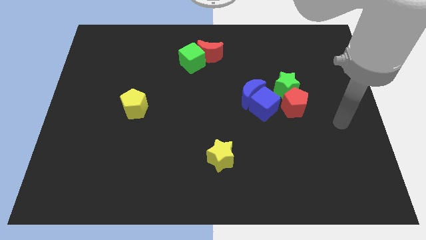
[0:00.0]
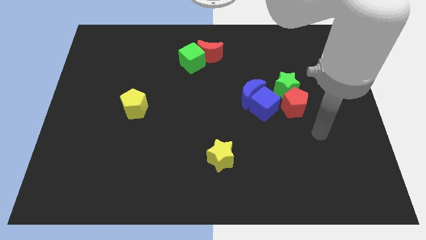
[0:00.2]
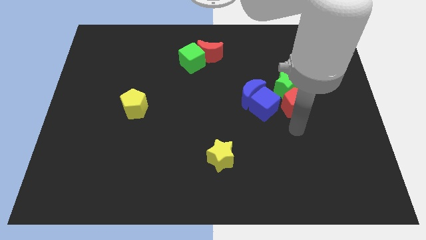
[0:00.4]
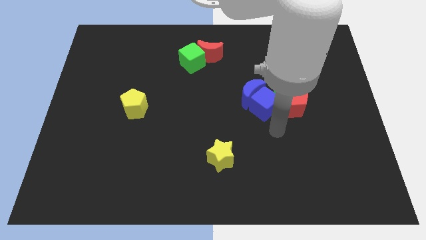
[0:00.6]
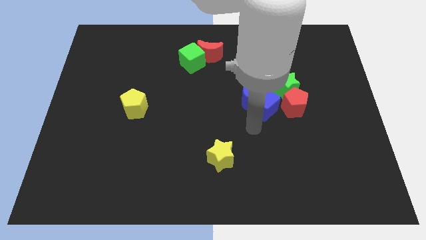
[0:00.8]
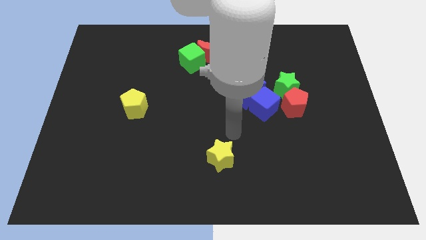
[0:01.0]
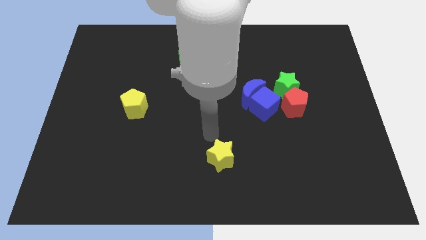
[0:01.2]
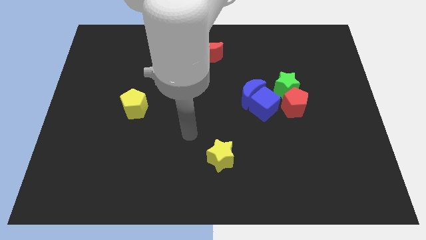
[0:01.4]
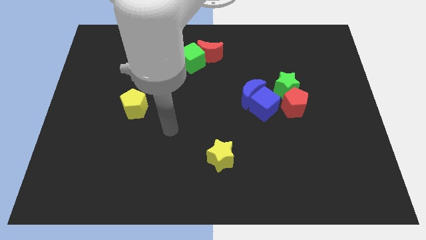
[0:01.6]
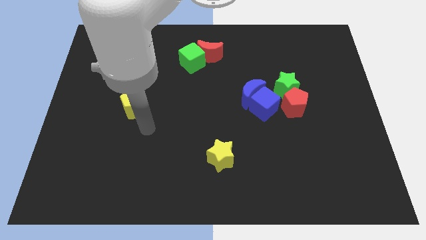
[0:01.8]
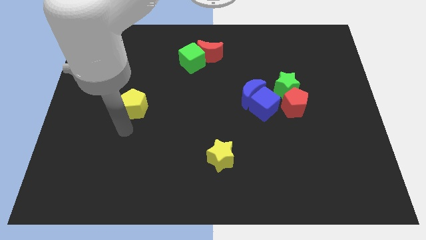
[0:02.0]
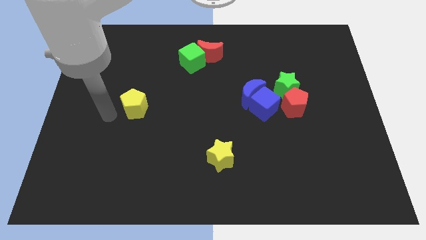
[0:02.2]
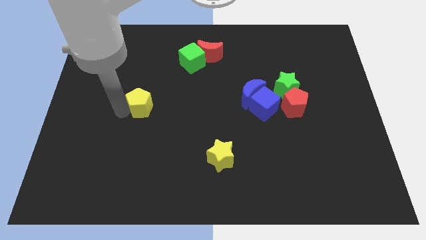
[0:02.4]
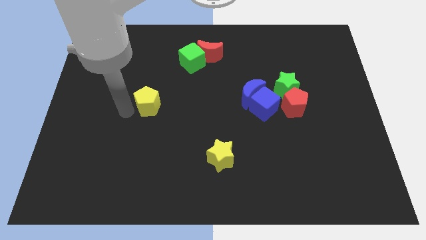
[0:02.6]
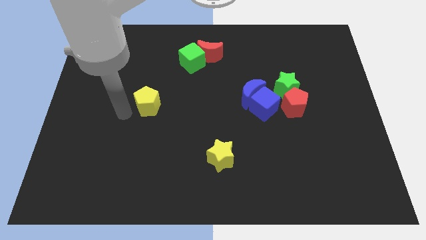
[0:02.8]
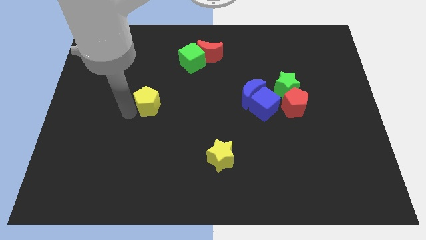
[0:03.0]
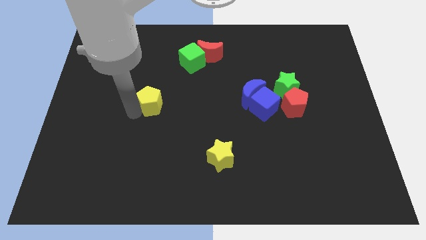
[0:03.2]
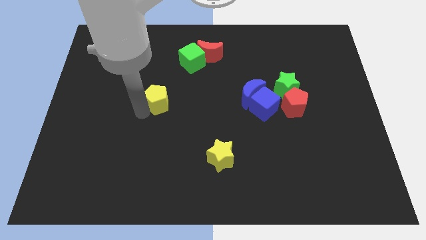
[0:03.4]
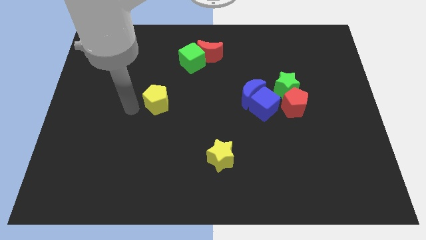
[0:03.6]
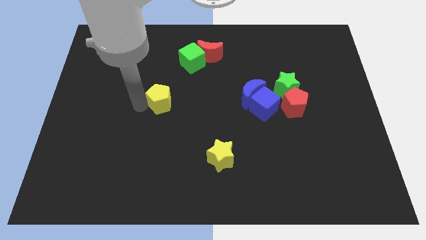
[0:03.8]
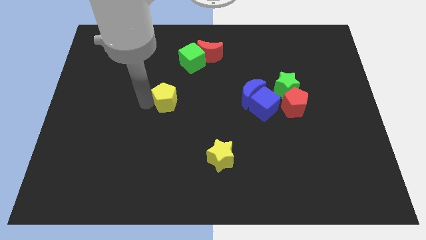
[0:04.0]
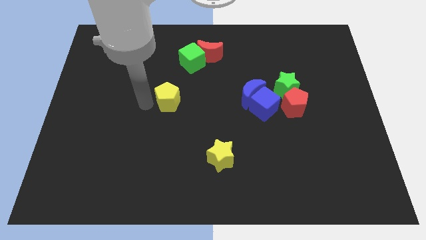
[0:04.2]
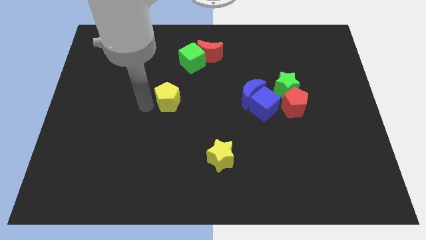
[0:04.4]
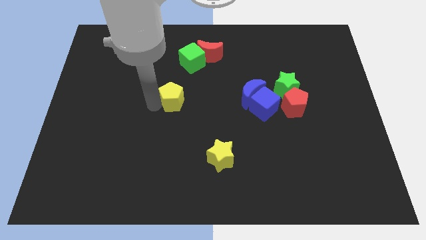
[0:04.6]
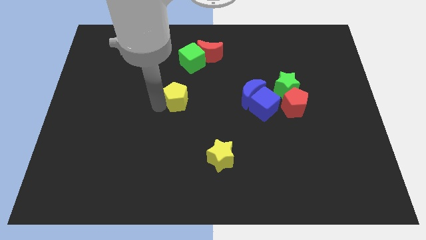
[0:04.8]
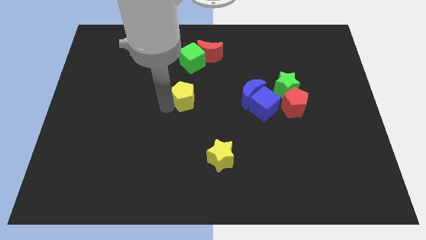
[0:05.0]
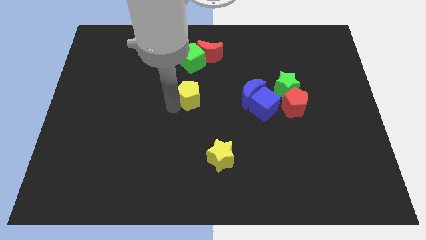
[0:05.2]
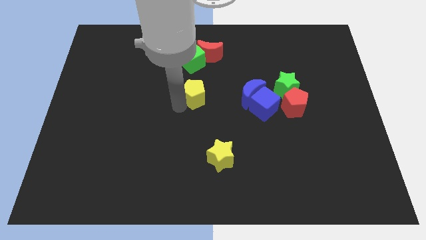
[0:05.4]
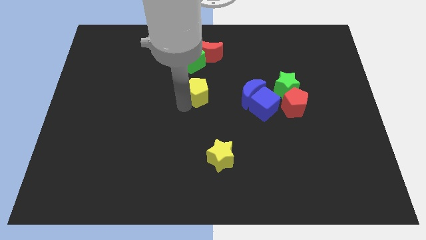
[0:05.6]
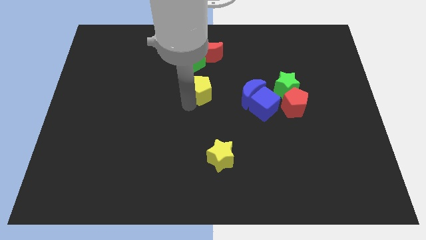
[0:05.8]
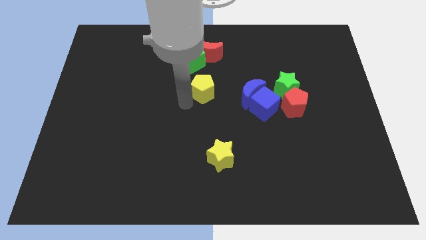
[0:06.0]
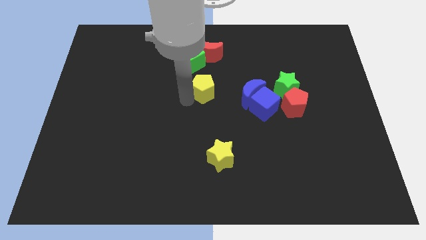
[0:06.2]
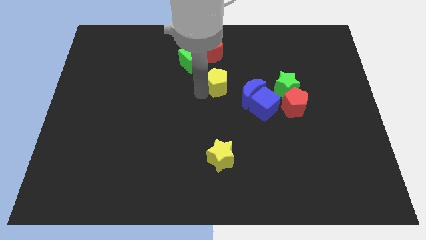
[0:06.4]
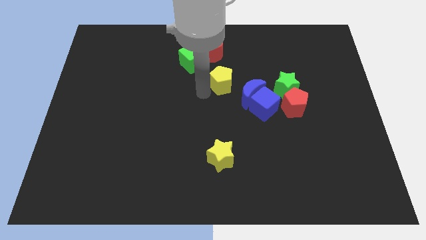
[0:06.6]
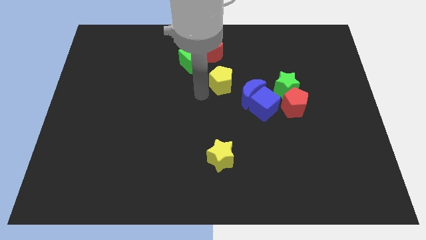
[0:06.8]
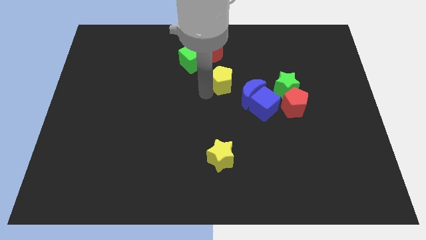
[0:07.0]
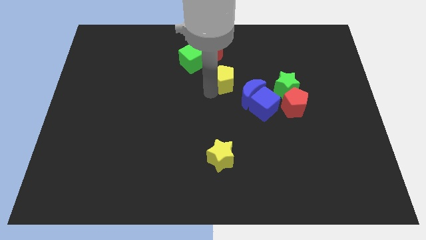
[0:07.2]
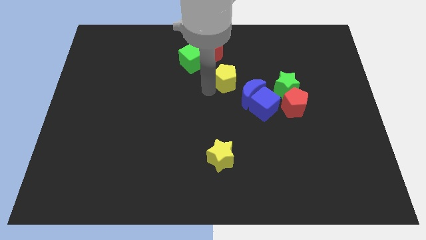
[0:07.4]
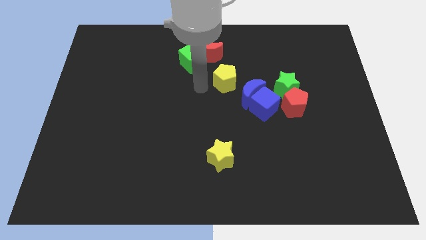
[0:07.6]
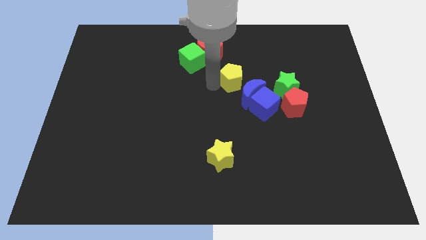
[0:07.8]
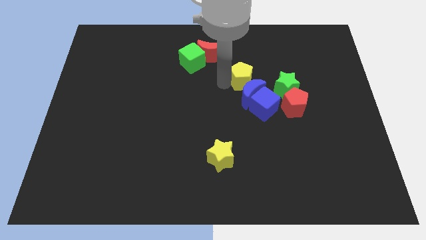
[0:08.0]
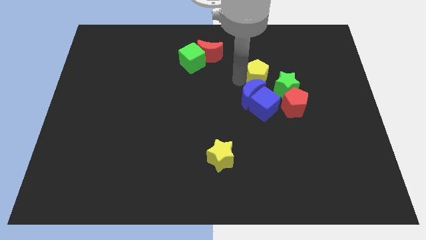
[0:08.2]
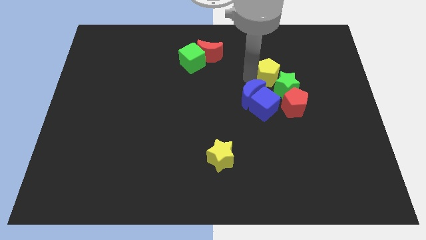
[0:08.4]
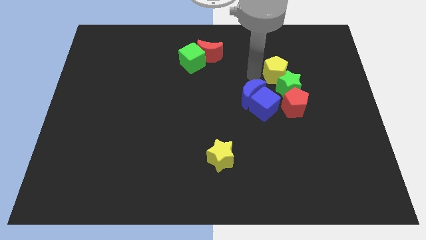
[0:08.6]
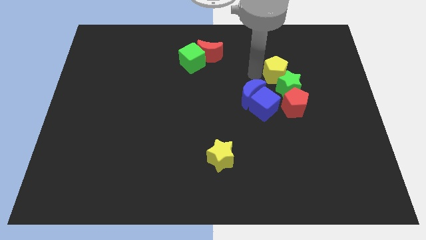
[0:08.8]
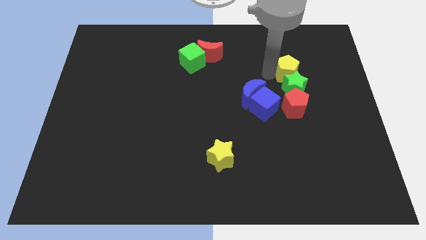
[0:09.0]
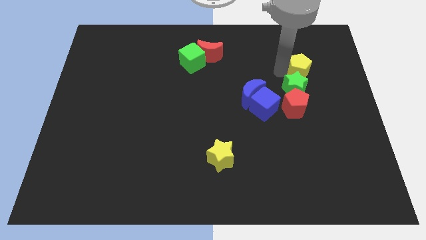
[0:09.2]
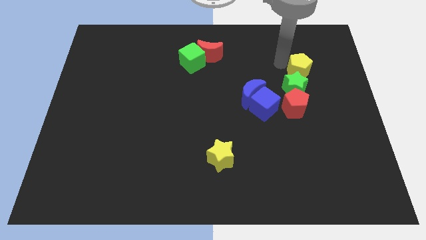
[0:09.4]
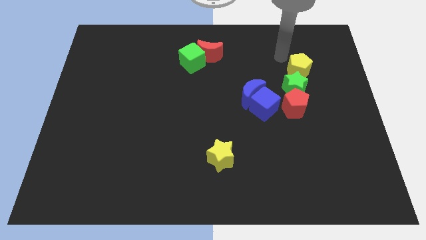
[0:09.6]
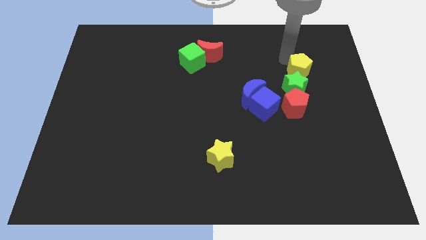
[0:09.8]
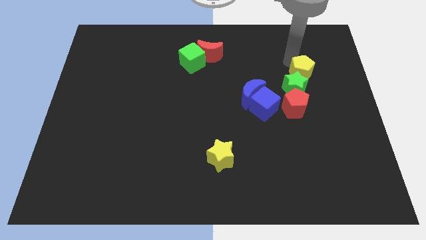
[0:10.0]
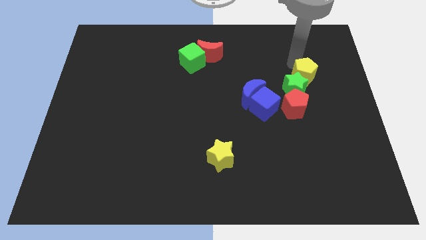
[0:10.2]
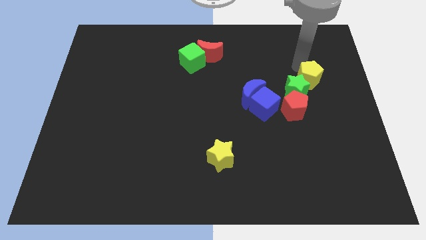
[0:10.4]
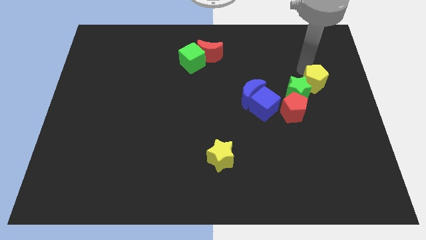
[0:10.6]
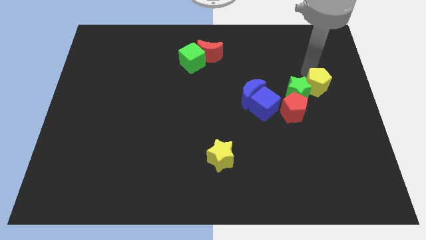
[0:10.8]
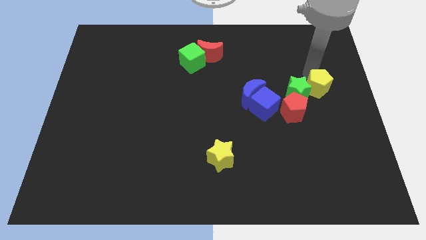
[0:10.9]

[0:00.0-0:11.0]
push the yellow pentagon to the center right

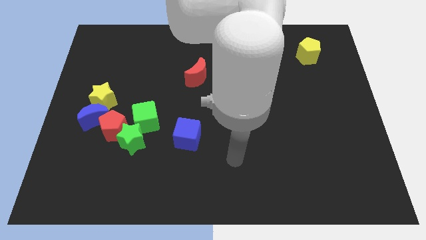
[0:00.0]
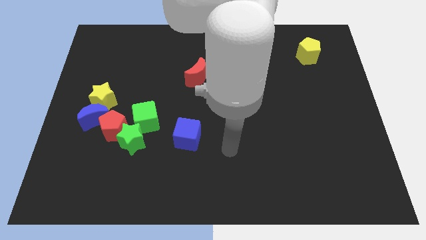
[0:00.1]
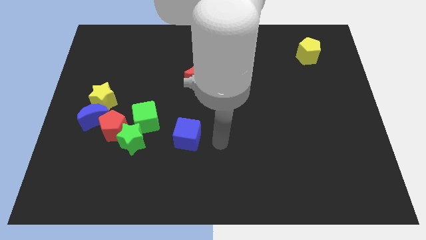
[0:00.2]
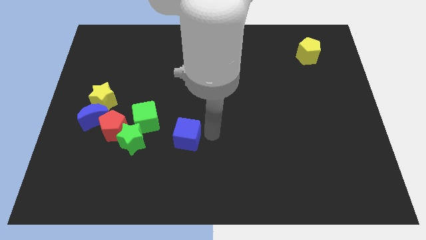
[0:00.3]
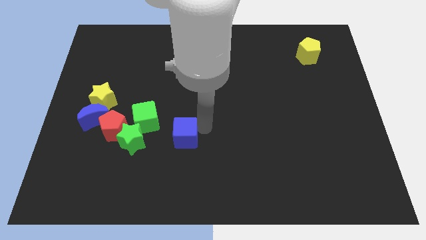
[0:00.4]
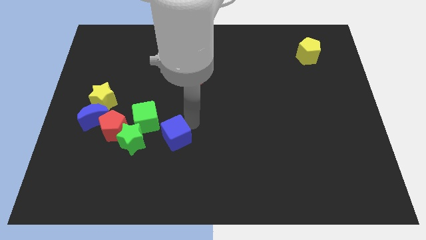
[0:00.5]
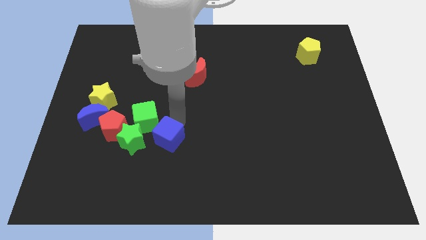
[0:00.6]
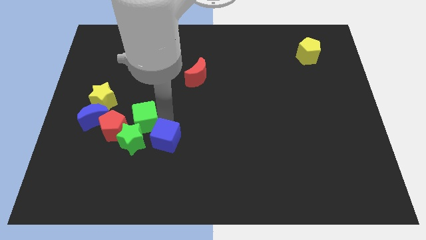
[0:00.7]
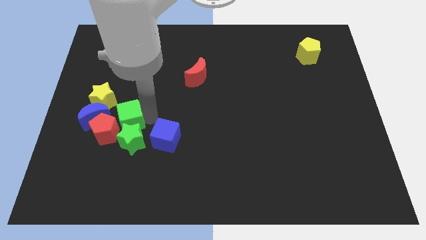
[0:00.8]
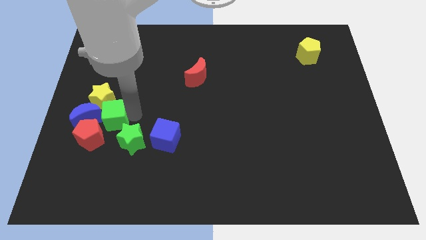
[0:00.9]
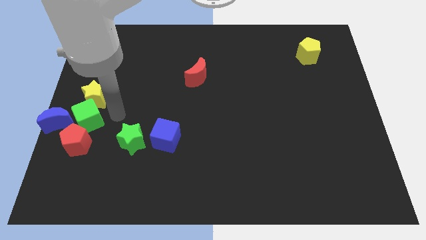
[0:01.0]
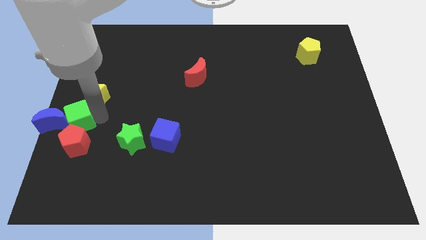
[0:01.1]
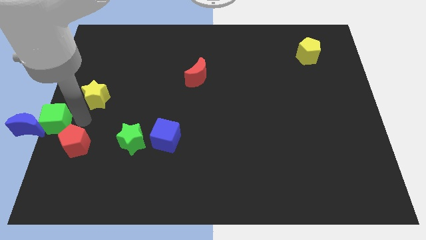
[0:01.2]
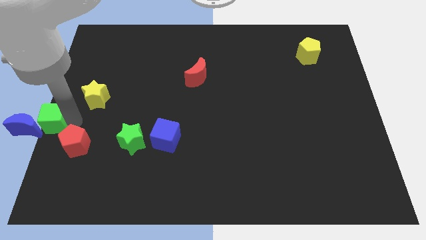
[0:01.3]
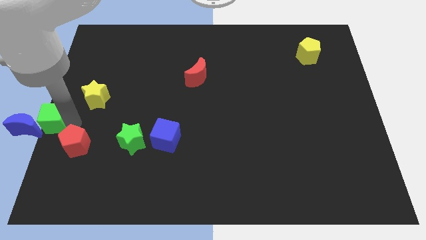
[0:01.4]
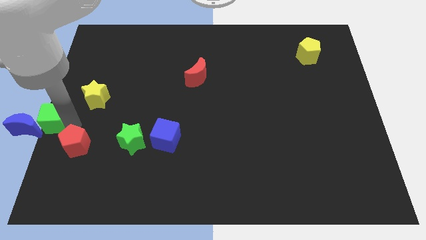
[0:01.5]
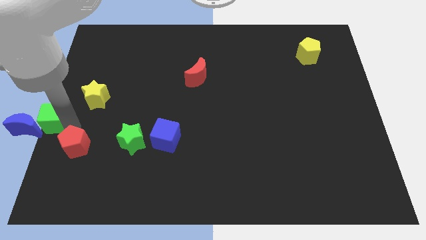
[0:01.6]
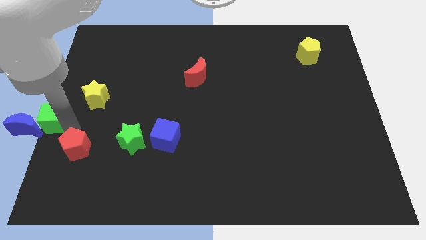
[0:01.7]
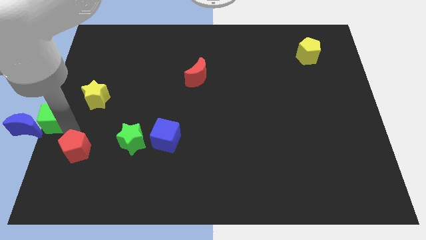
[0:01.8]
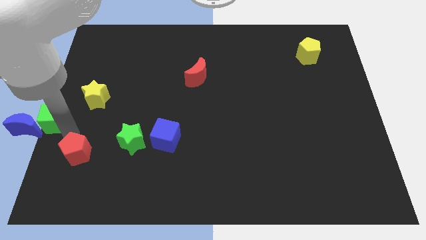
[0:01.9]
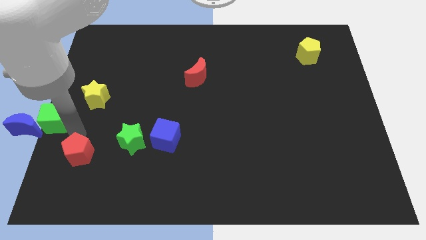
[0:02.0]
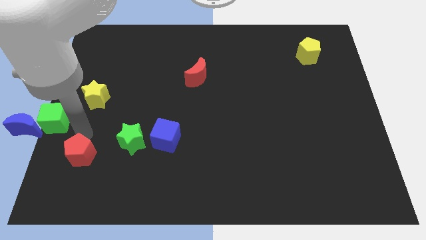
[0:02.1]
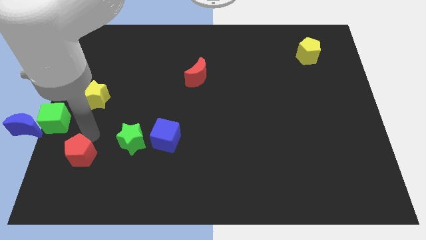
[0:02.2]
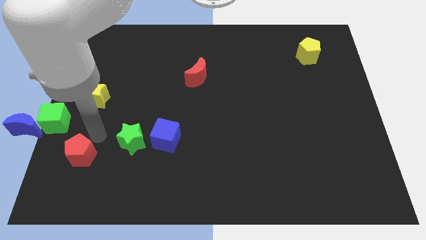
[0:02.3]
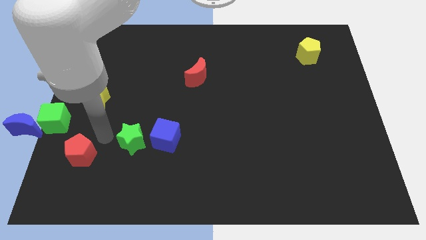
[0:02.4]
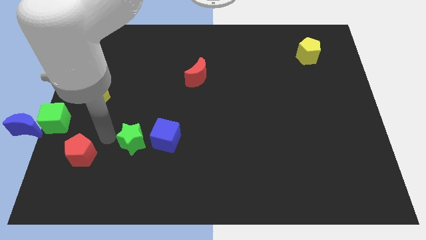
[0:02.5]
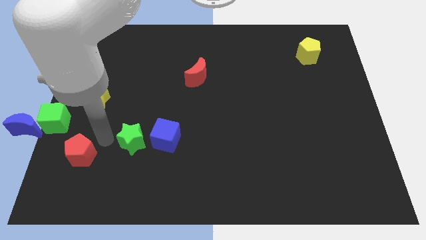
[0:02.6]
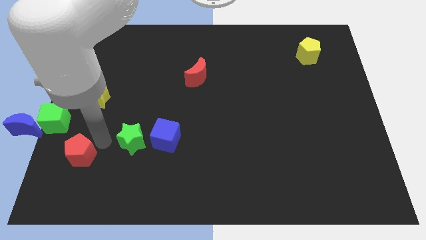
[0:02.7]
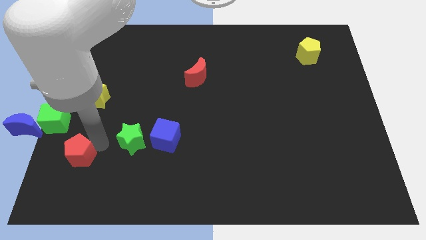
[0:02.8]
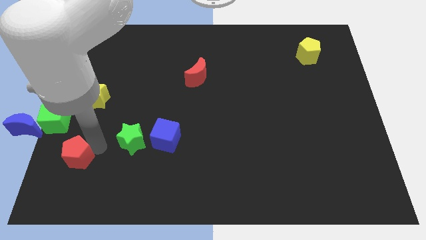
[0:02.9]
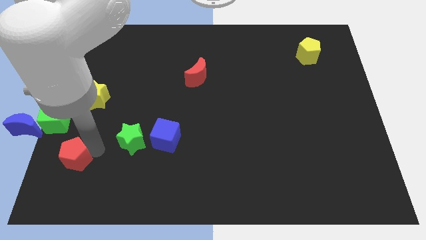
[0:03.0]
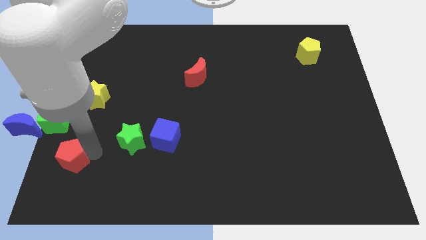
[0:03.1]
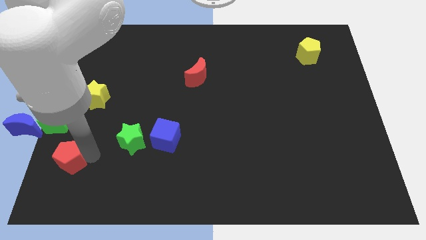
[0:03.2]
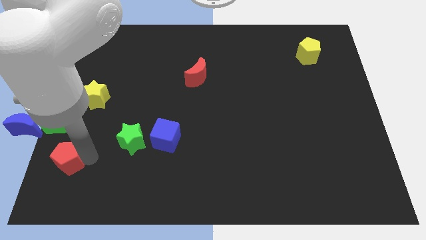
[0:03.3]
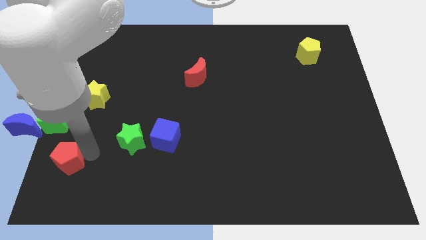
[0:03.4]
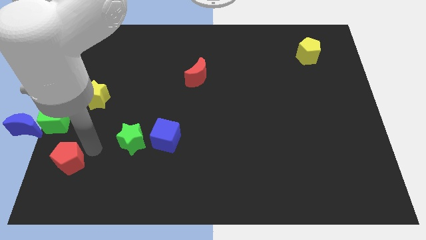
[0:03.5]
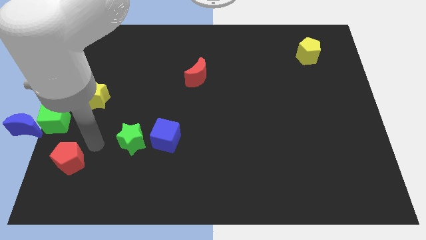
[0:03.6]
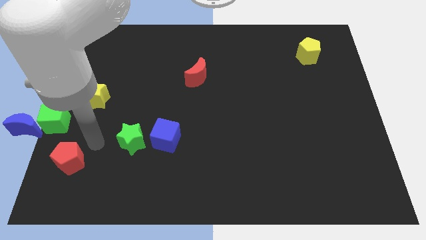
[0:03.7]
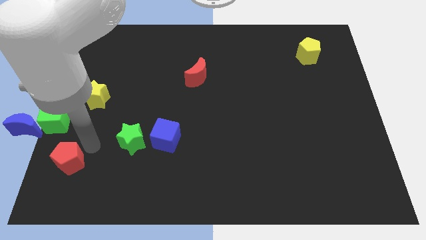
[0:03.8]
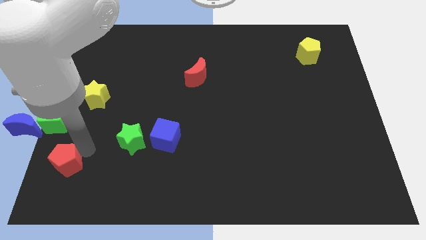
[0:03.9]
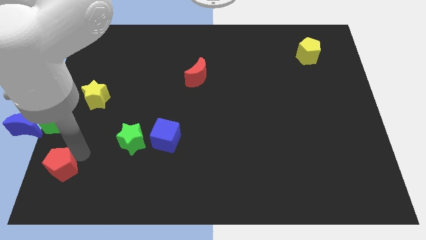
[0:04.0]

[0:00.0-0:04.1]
move the red pentagon to the bottom left of the board
